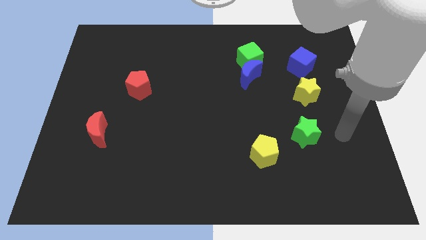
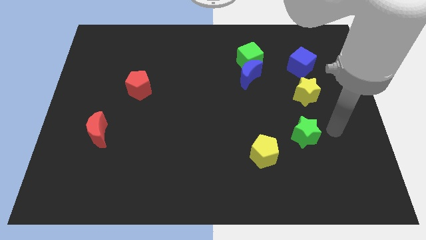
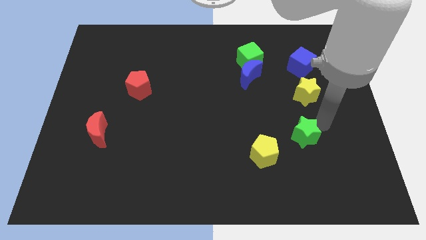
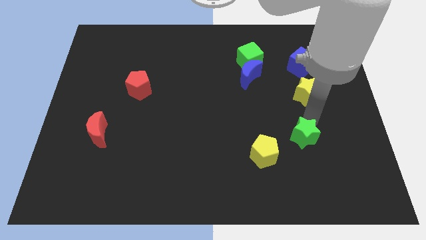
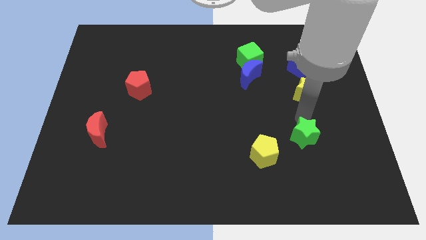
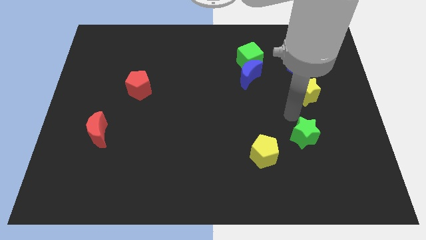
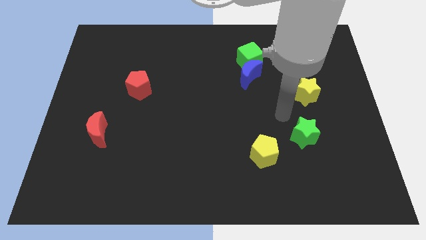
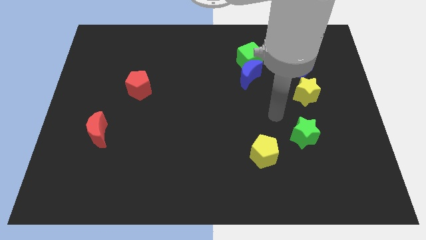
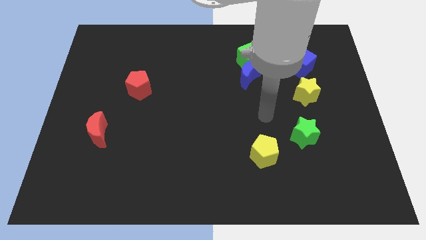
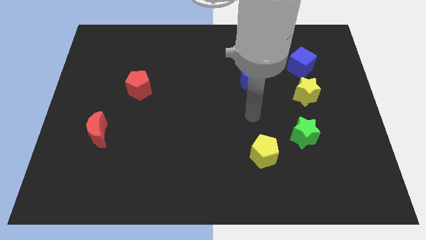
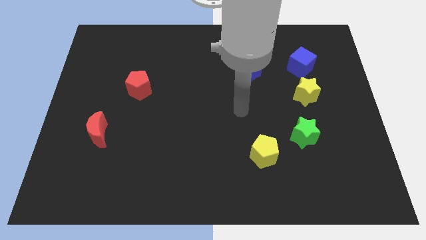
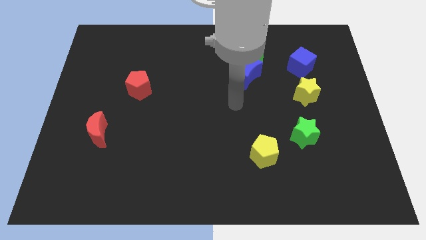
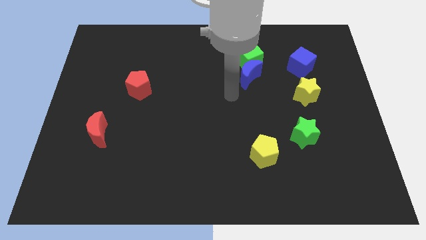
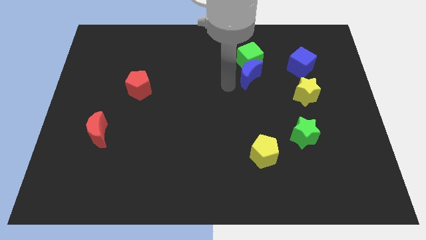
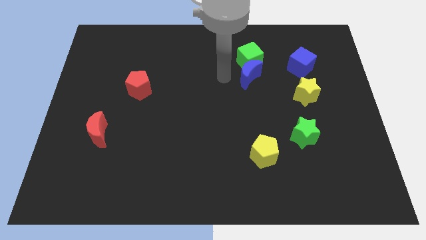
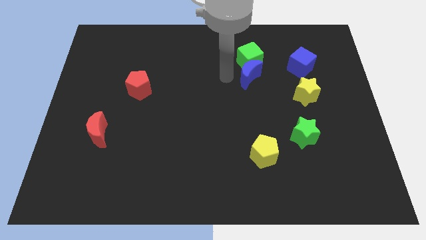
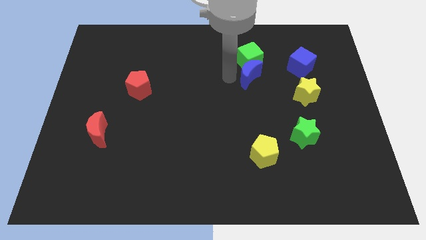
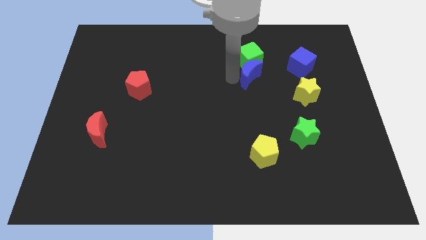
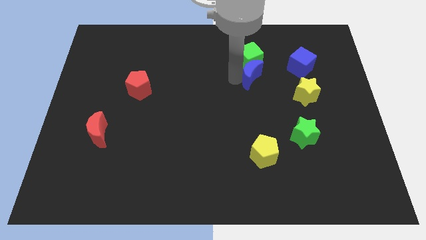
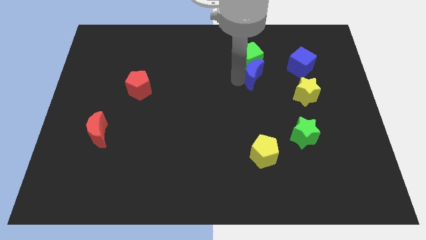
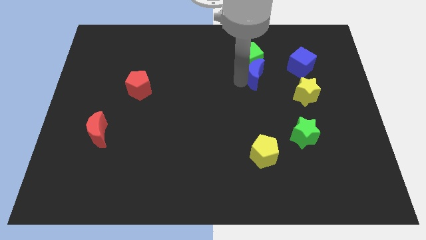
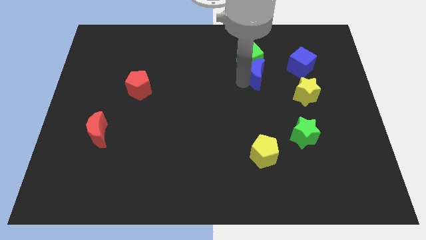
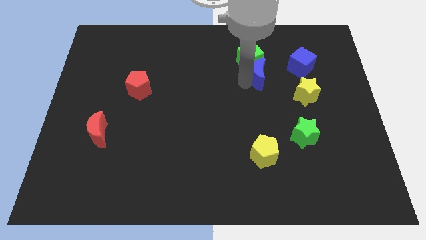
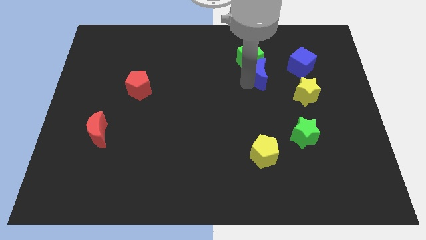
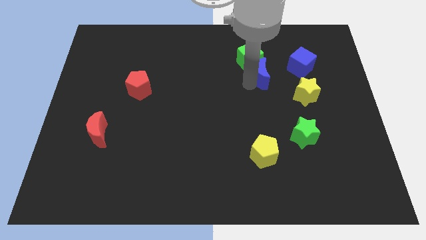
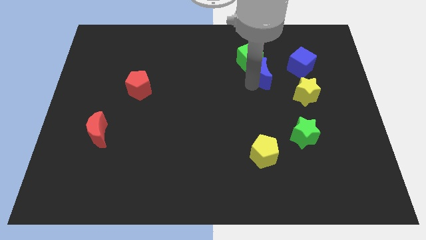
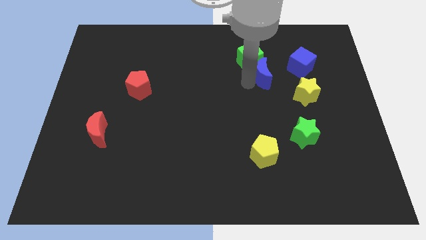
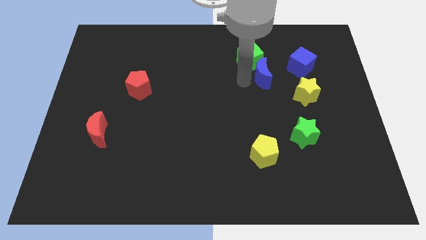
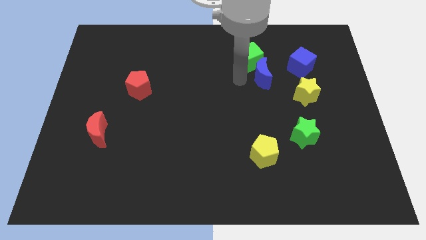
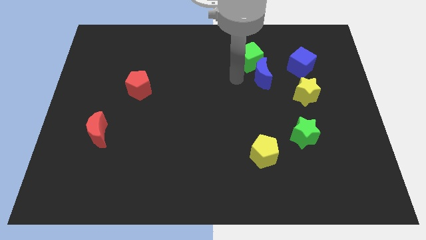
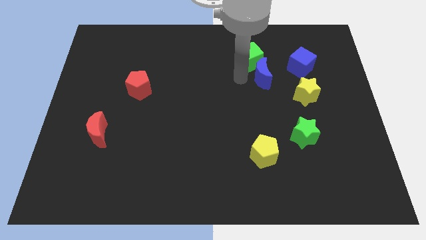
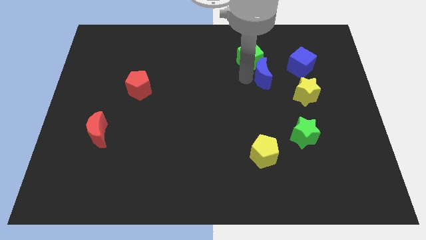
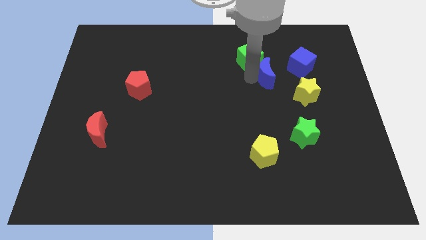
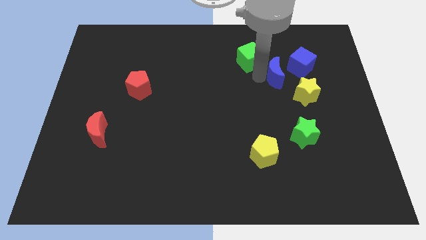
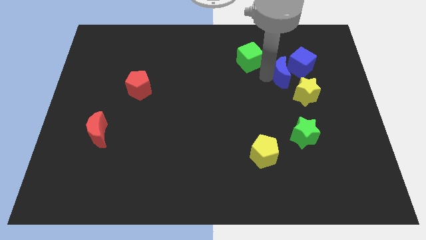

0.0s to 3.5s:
move the blue moon a bit to the right

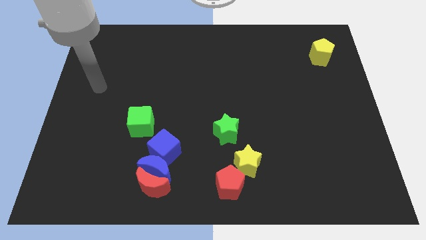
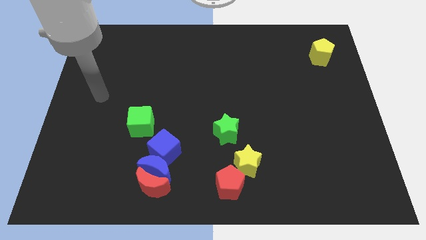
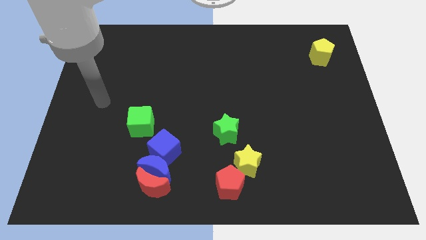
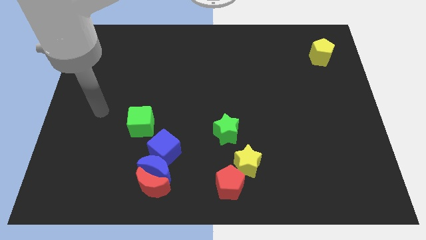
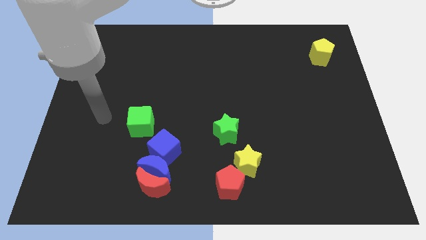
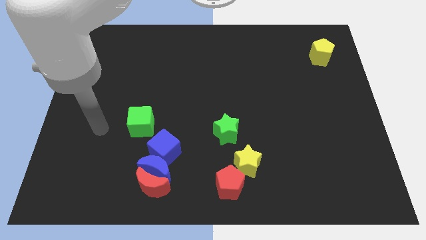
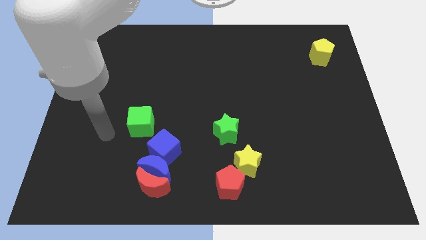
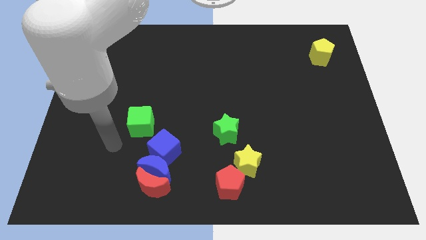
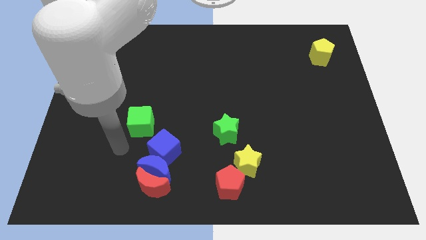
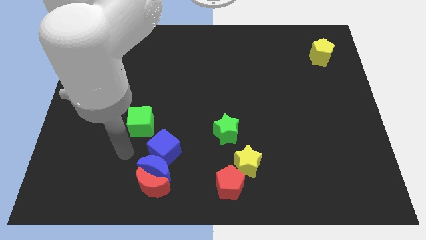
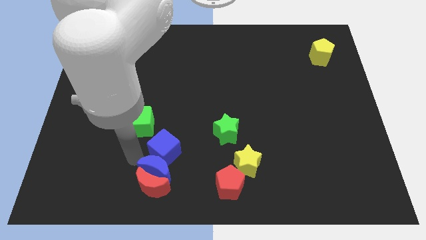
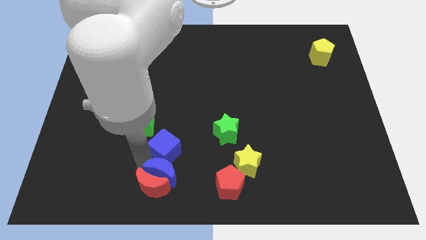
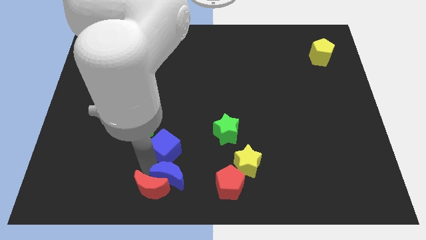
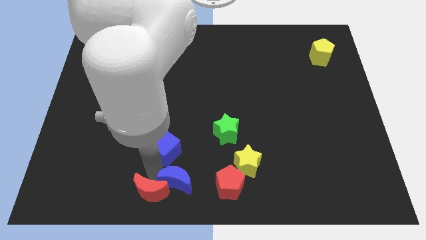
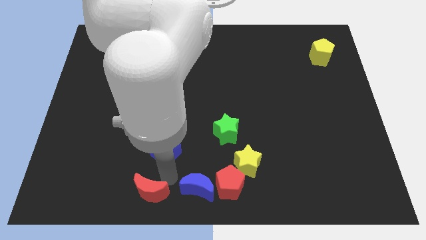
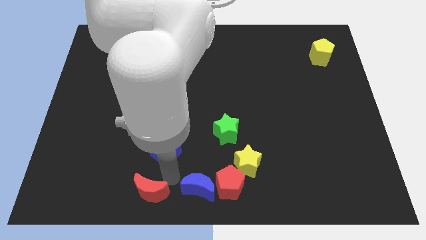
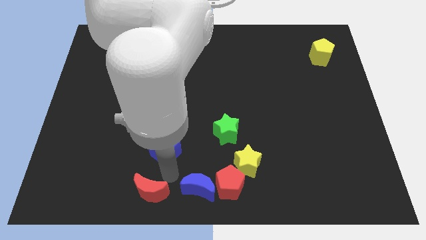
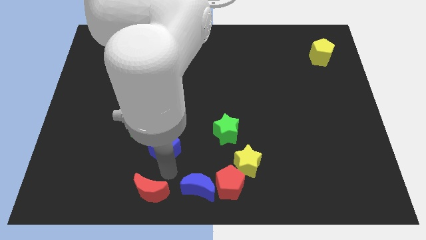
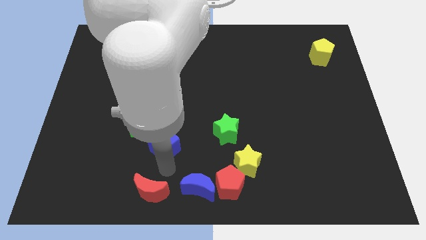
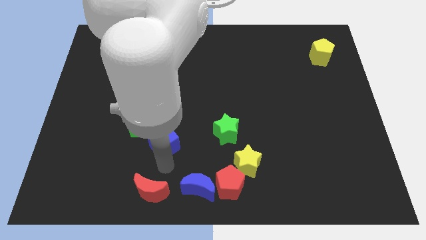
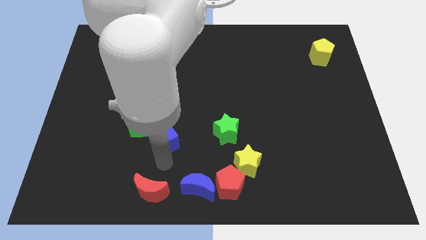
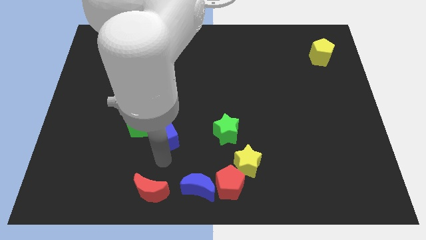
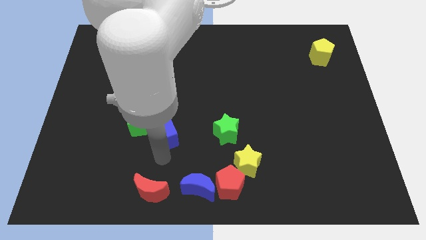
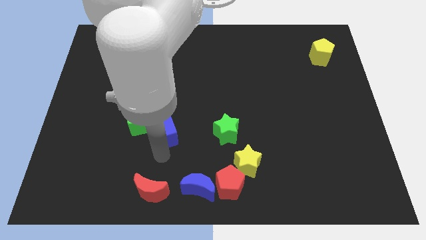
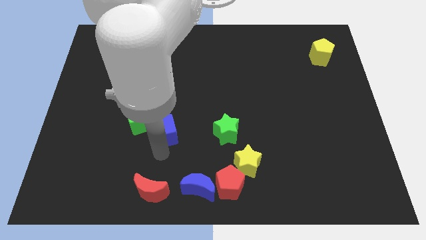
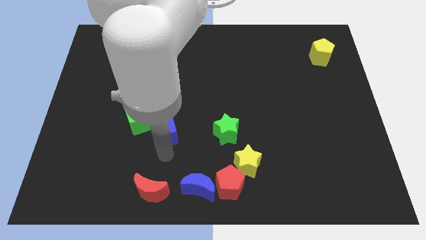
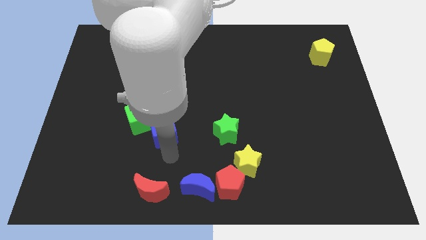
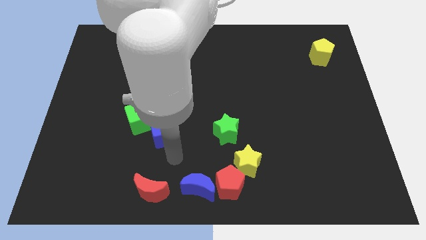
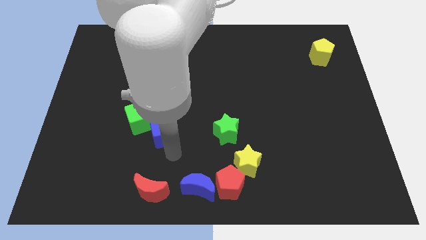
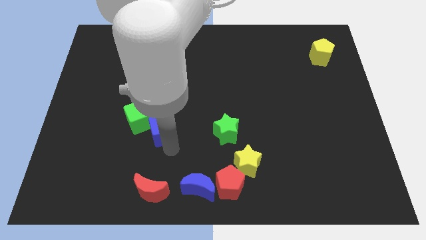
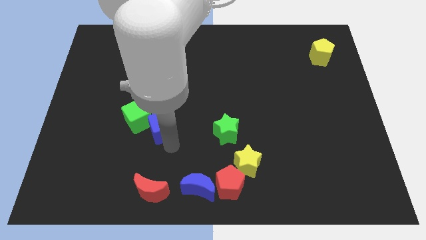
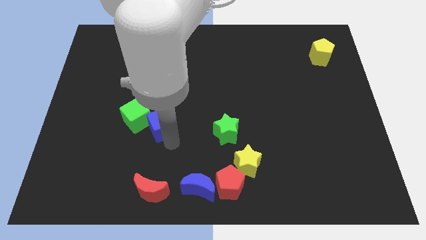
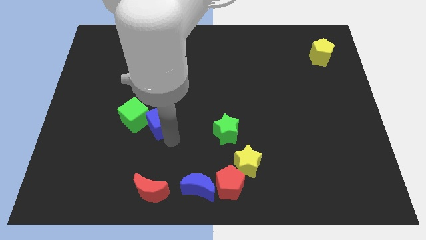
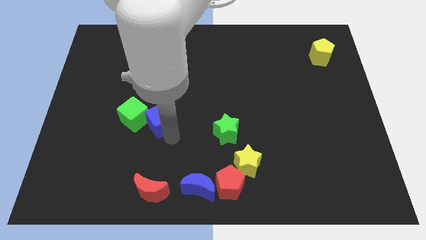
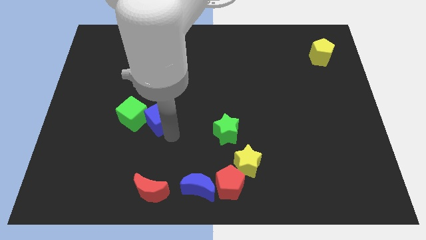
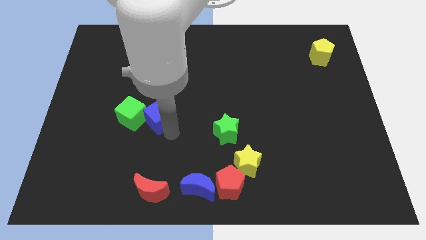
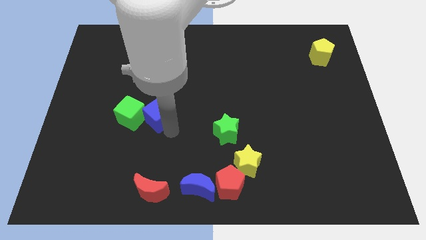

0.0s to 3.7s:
move the blue cube upwards and left diagonally slightly

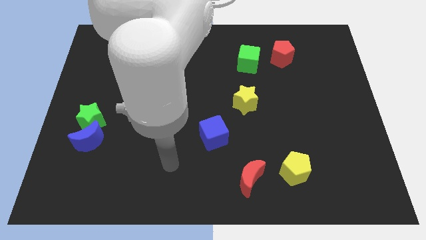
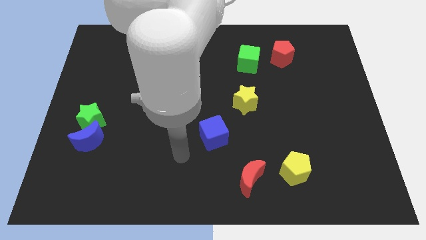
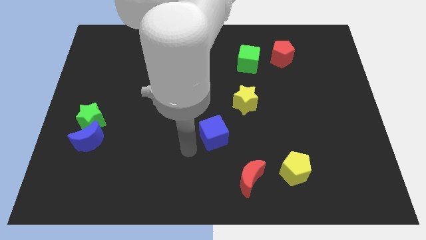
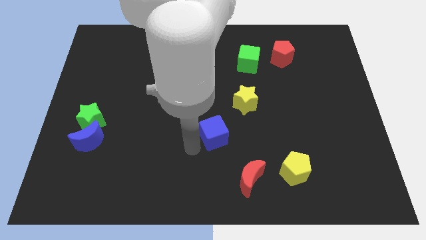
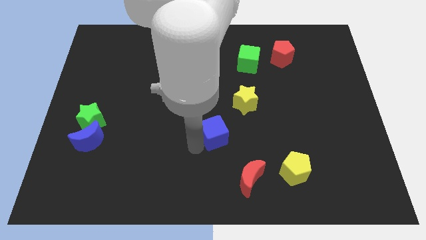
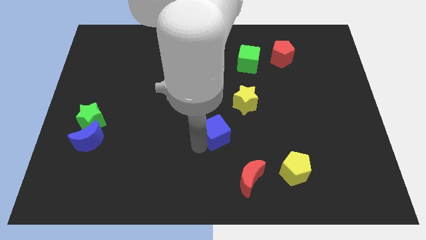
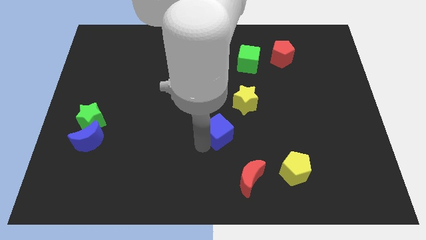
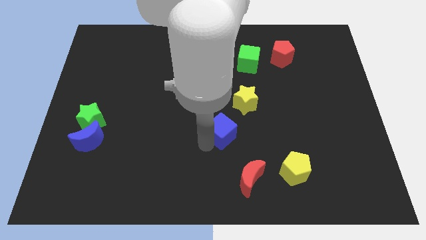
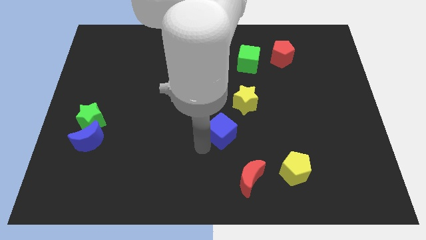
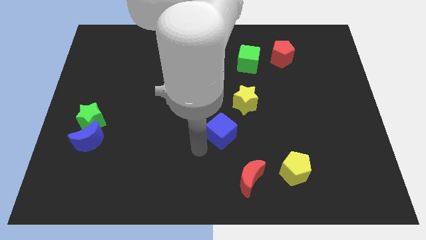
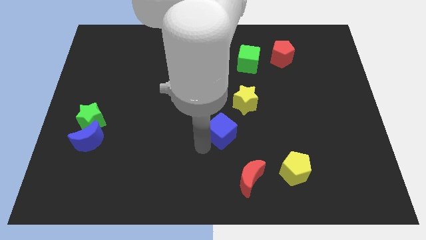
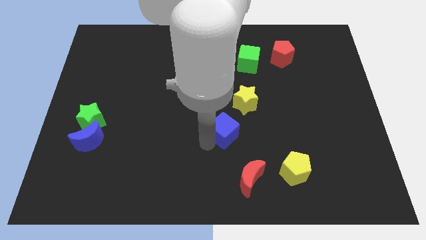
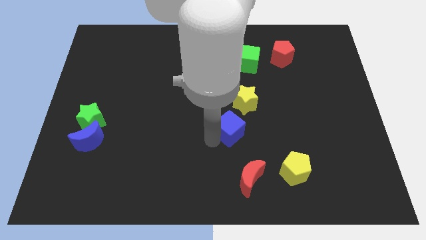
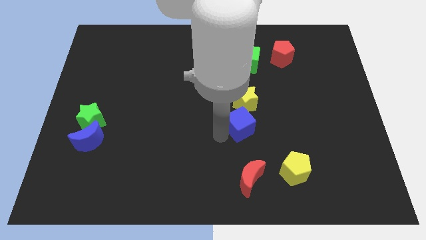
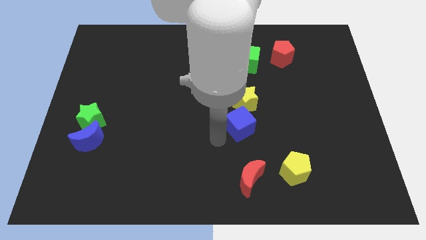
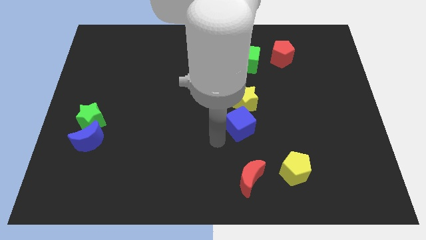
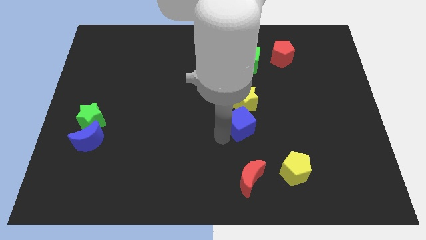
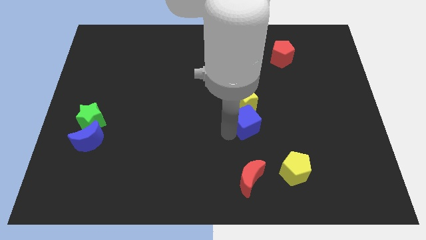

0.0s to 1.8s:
slide the blue cube upwards and then right a bit
